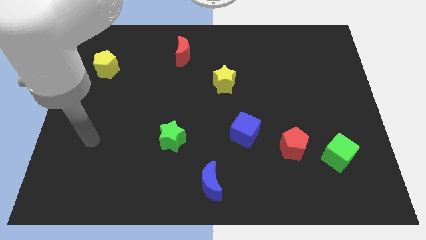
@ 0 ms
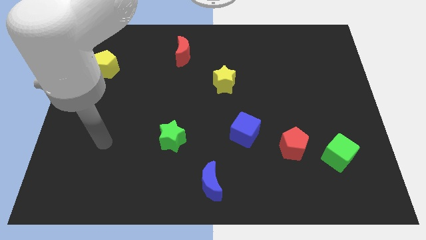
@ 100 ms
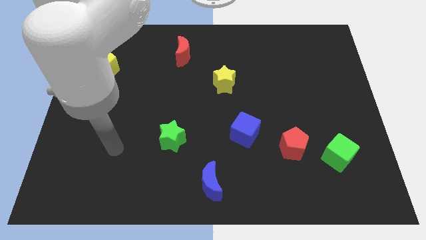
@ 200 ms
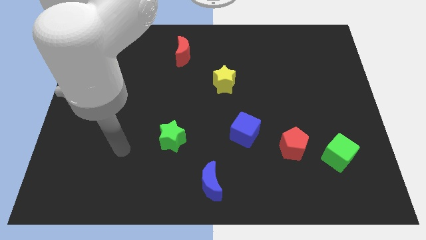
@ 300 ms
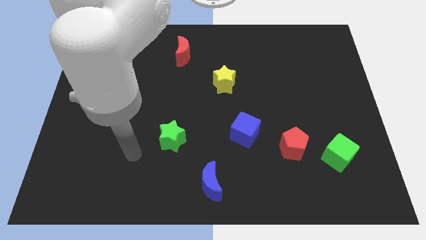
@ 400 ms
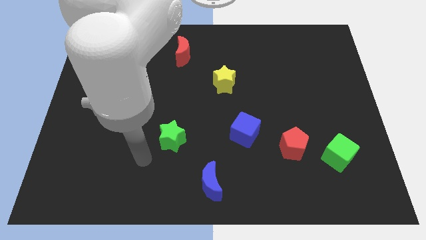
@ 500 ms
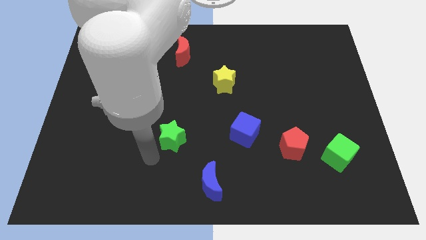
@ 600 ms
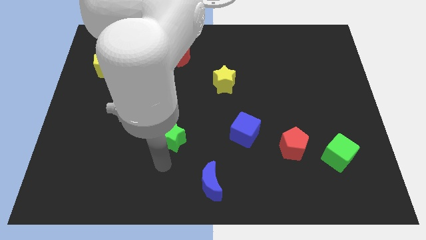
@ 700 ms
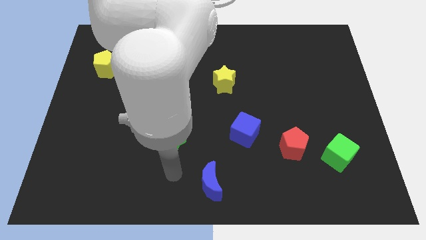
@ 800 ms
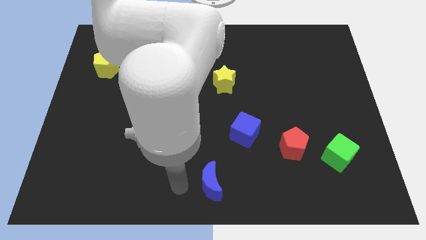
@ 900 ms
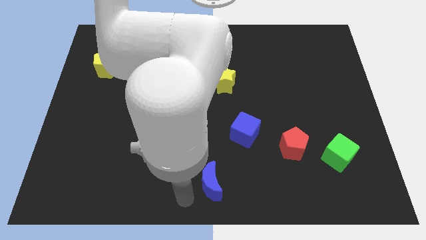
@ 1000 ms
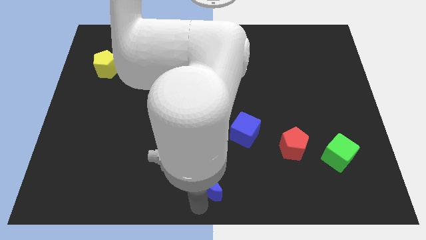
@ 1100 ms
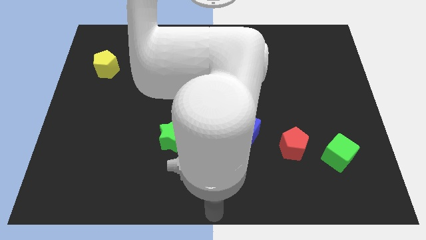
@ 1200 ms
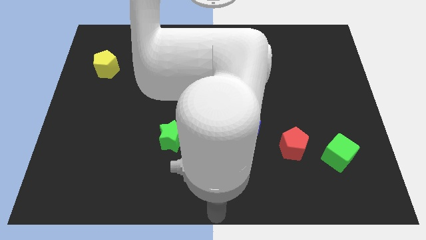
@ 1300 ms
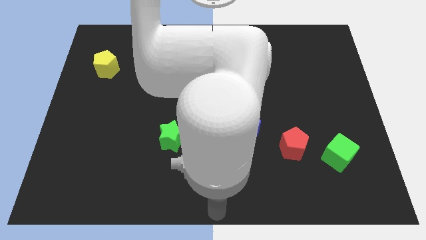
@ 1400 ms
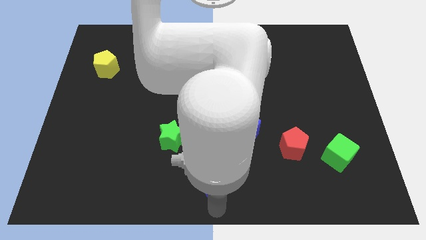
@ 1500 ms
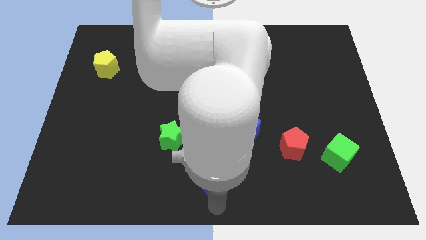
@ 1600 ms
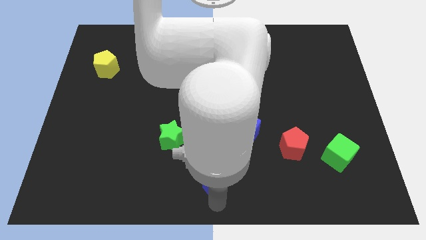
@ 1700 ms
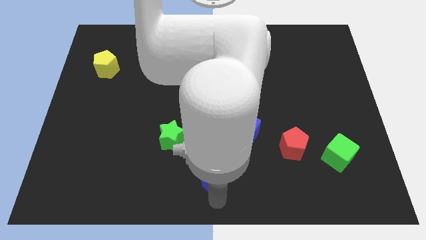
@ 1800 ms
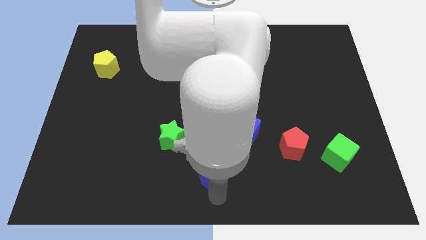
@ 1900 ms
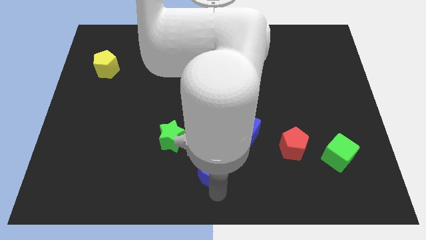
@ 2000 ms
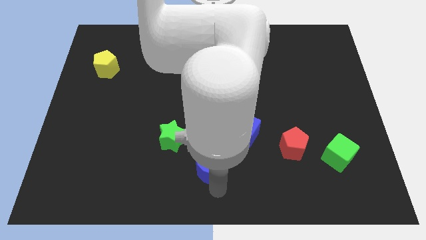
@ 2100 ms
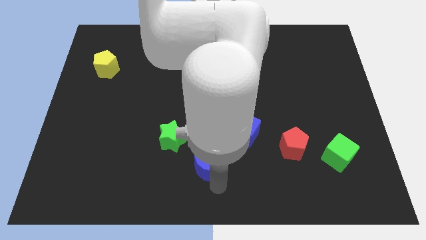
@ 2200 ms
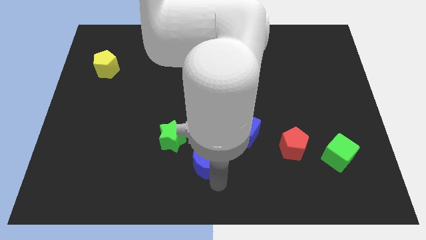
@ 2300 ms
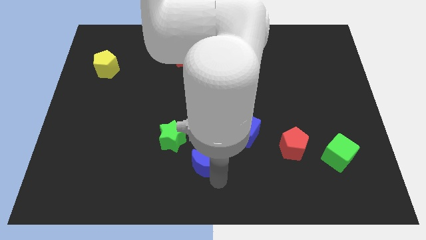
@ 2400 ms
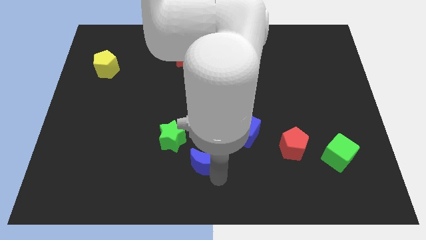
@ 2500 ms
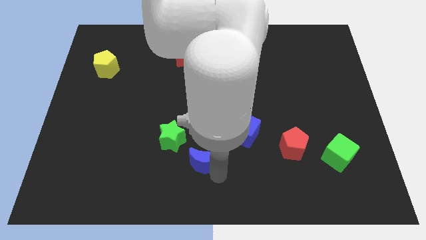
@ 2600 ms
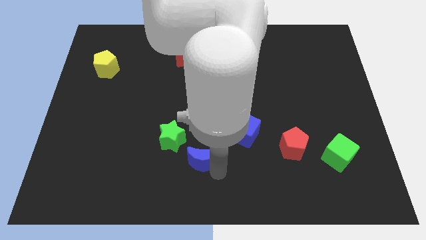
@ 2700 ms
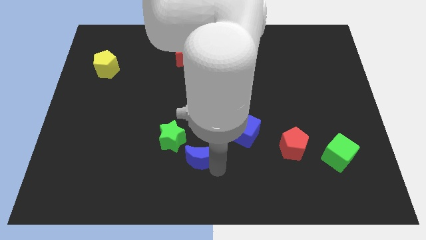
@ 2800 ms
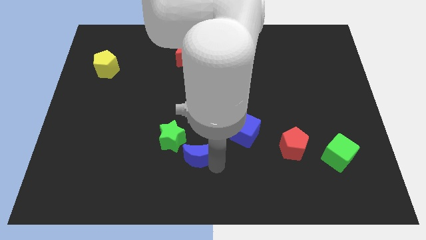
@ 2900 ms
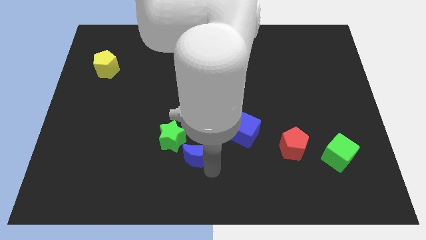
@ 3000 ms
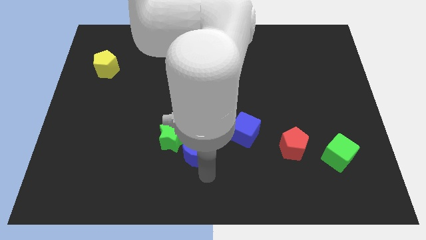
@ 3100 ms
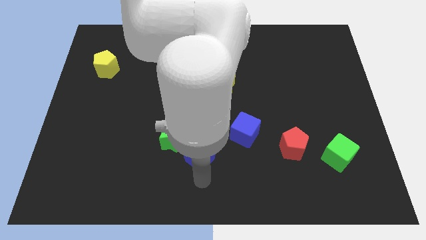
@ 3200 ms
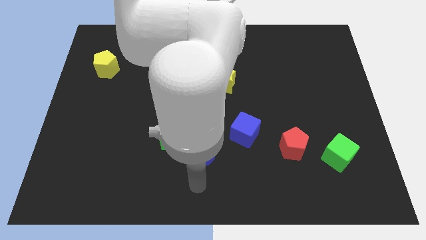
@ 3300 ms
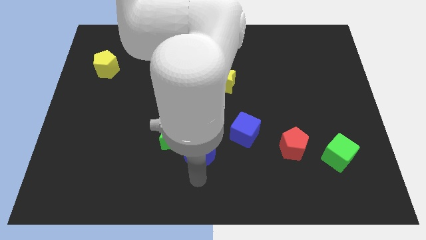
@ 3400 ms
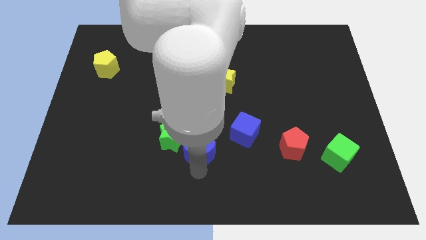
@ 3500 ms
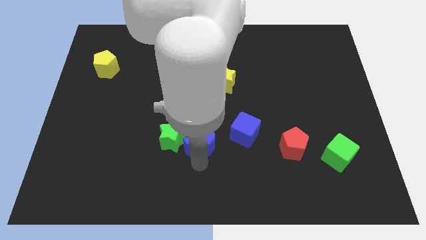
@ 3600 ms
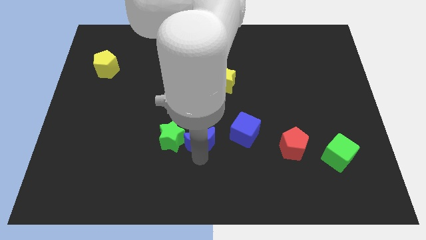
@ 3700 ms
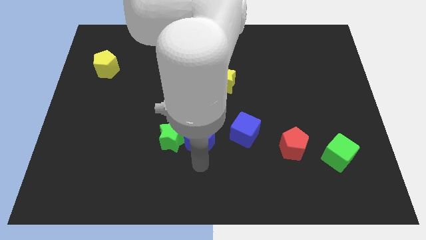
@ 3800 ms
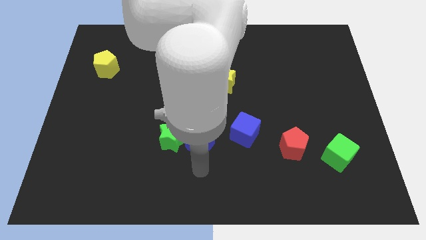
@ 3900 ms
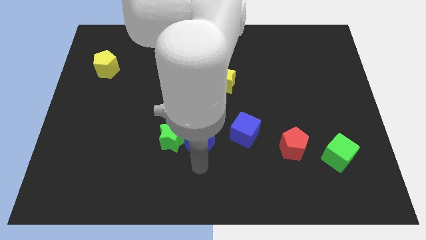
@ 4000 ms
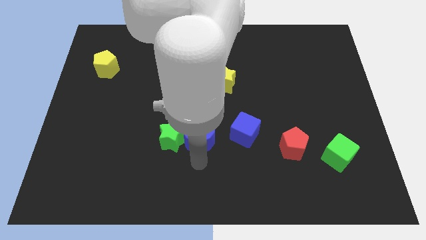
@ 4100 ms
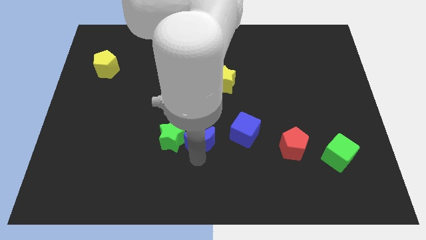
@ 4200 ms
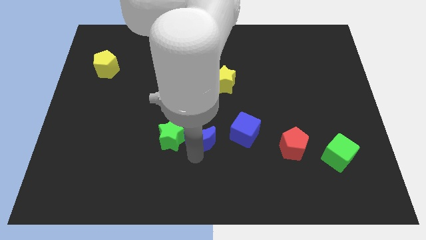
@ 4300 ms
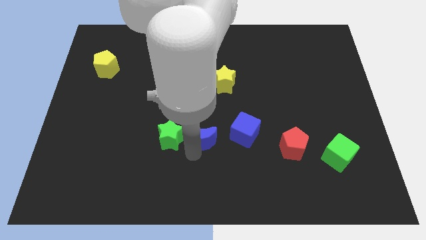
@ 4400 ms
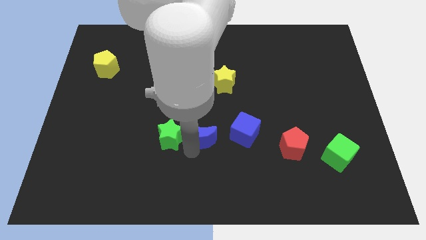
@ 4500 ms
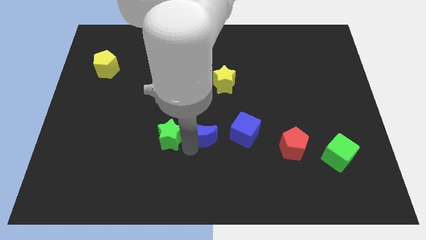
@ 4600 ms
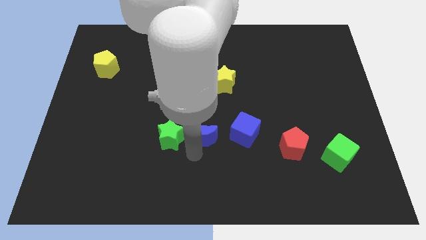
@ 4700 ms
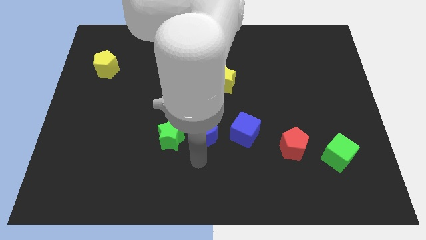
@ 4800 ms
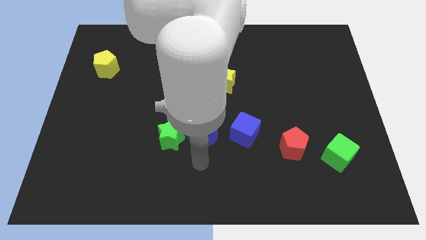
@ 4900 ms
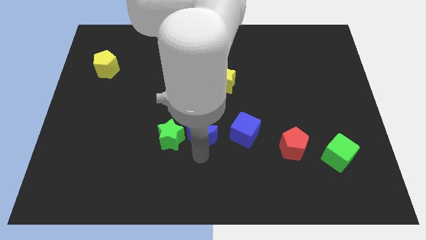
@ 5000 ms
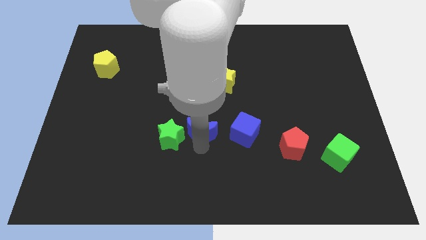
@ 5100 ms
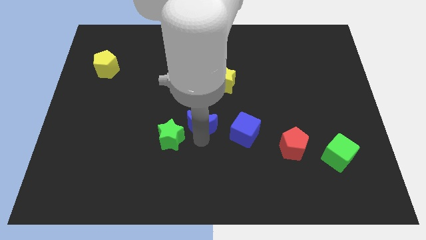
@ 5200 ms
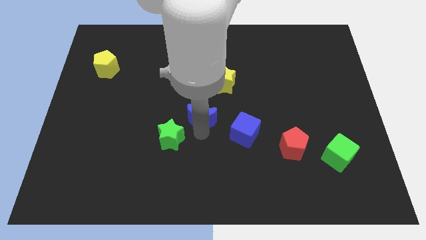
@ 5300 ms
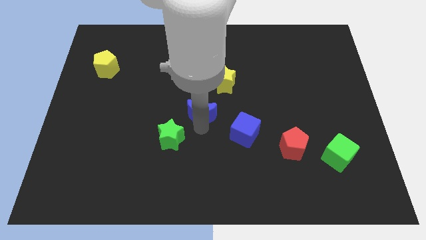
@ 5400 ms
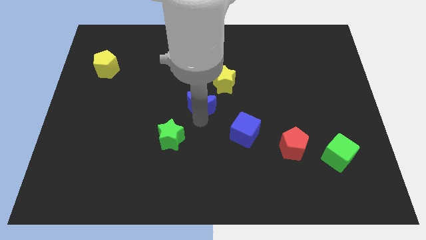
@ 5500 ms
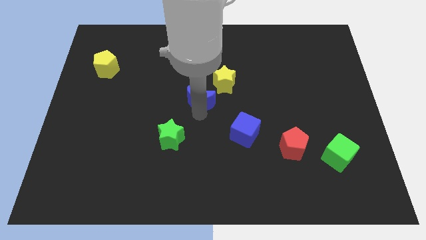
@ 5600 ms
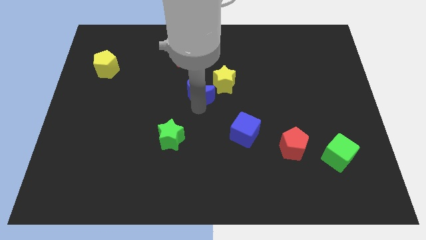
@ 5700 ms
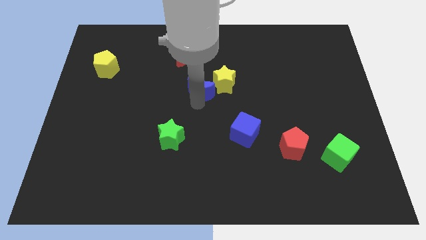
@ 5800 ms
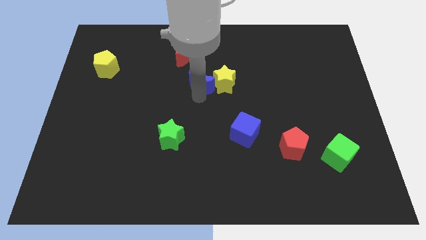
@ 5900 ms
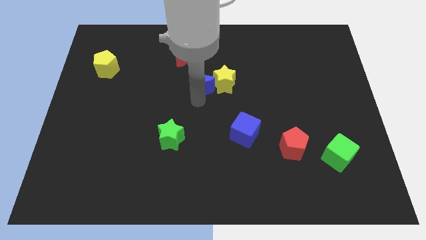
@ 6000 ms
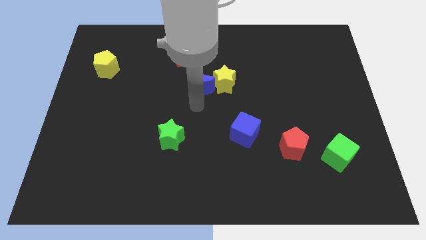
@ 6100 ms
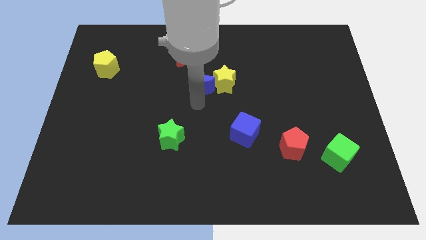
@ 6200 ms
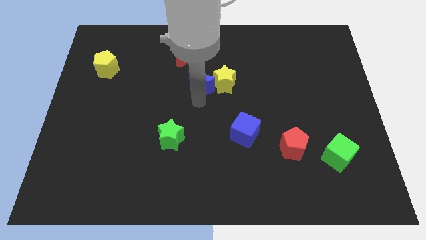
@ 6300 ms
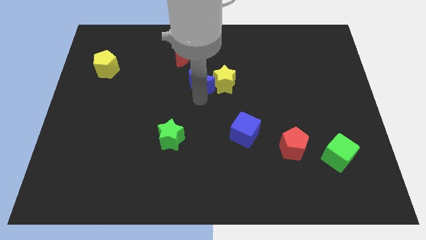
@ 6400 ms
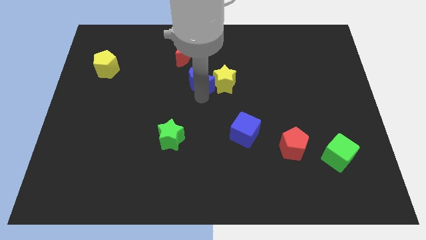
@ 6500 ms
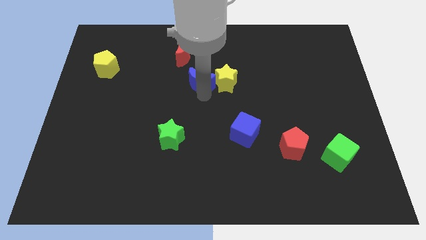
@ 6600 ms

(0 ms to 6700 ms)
put the blue moon diagonally down and to the right of the red moon
